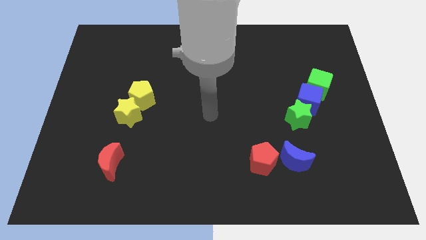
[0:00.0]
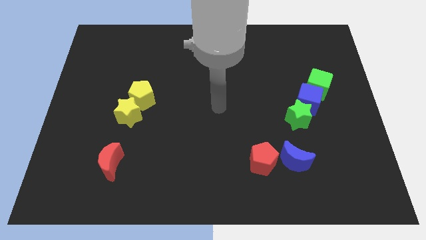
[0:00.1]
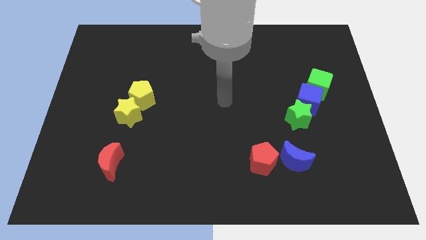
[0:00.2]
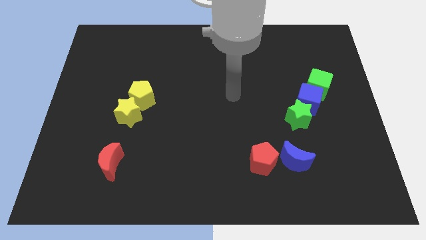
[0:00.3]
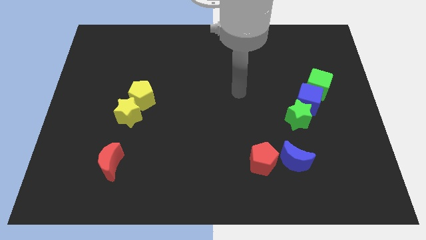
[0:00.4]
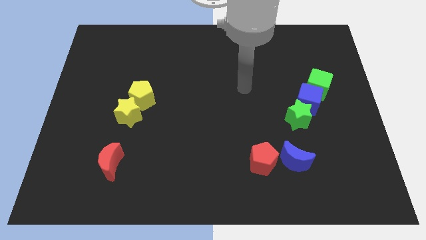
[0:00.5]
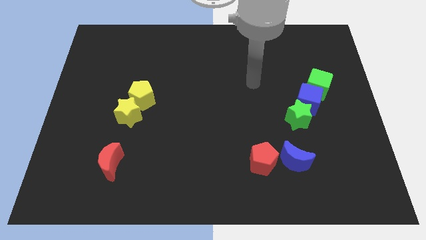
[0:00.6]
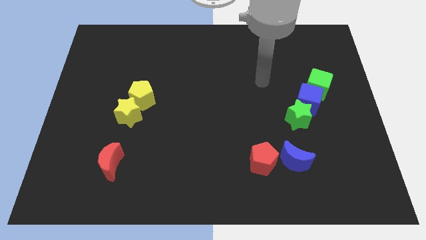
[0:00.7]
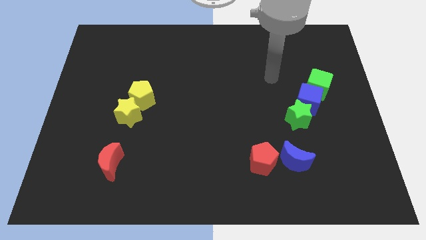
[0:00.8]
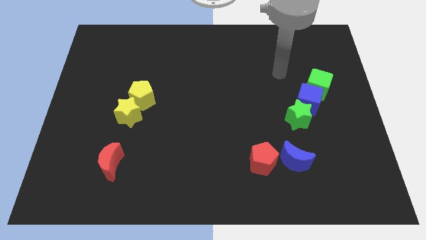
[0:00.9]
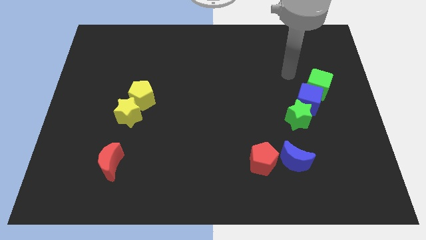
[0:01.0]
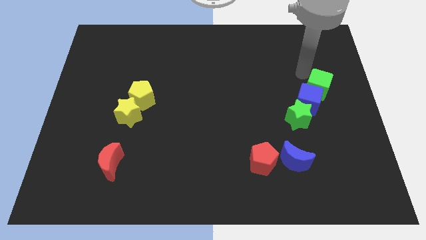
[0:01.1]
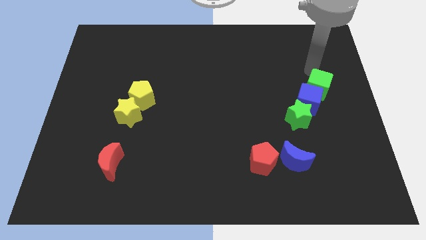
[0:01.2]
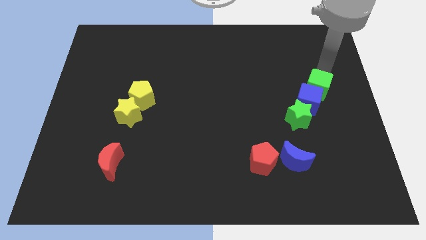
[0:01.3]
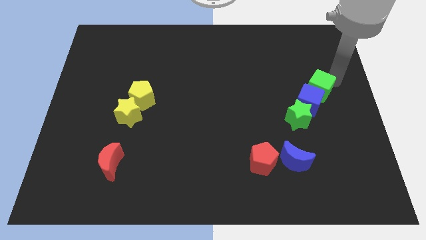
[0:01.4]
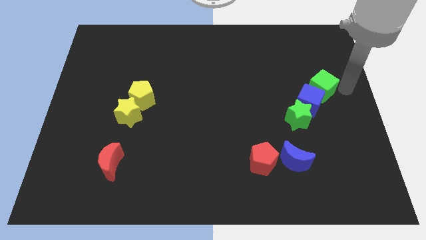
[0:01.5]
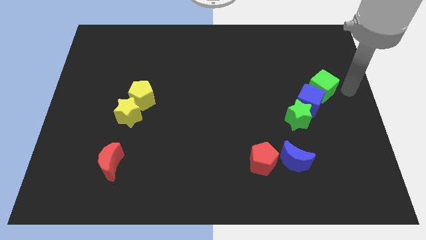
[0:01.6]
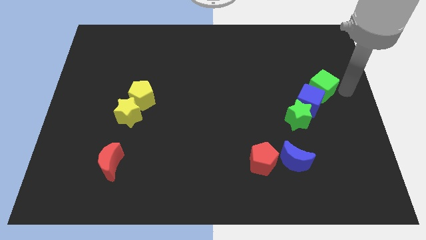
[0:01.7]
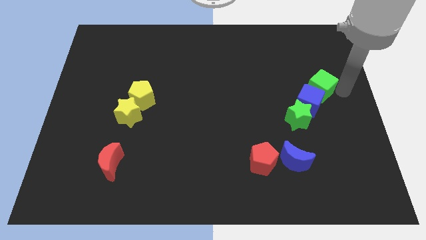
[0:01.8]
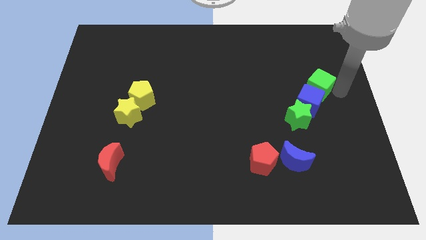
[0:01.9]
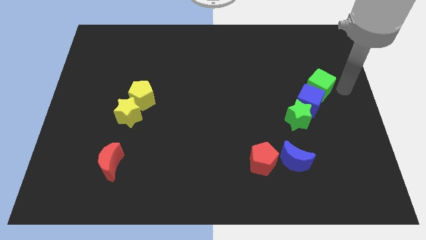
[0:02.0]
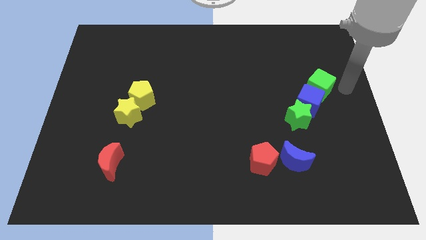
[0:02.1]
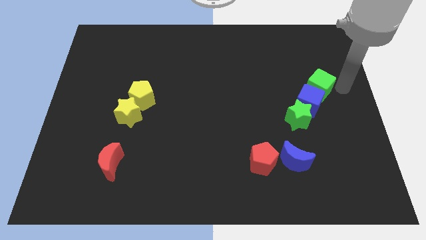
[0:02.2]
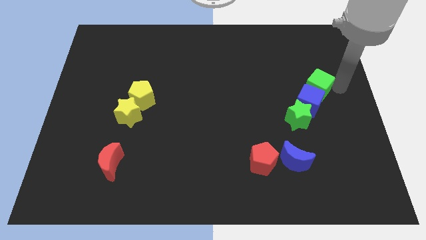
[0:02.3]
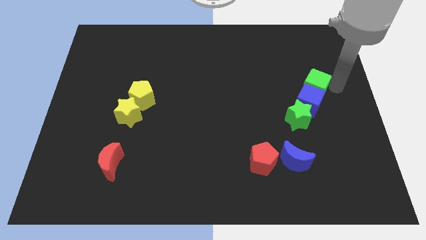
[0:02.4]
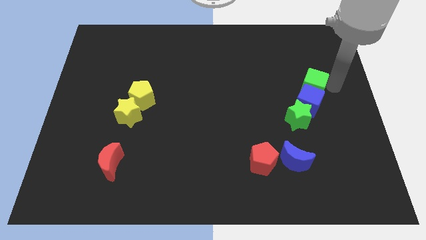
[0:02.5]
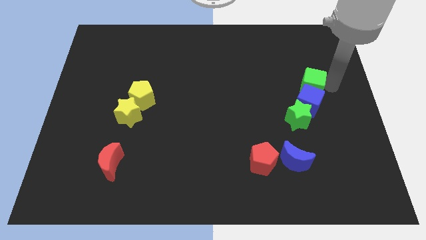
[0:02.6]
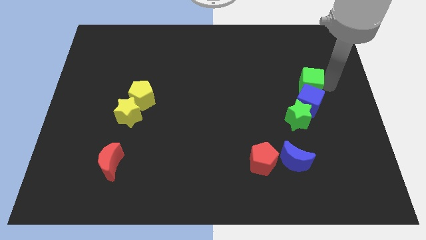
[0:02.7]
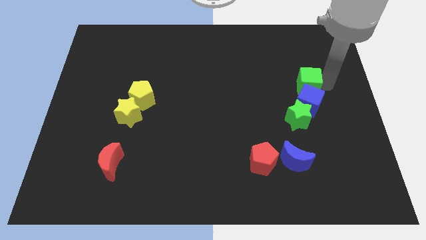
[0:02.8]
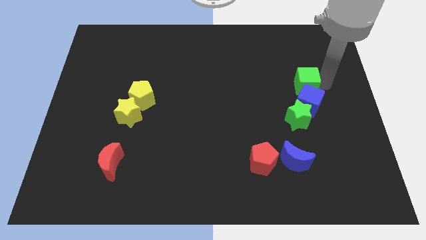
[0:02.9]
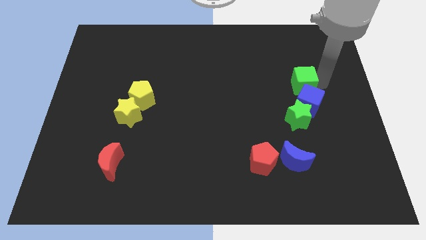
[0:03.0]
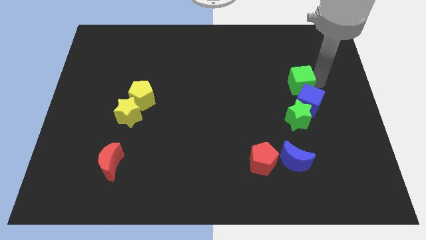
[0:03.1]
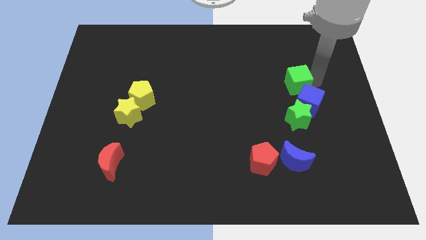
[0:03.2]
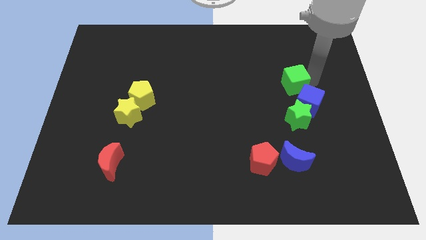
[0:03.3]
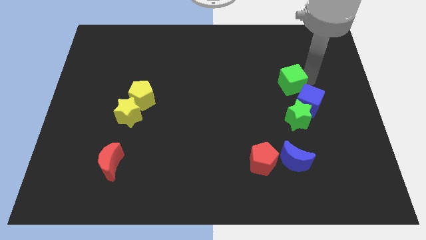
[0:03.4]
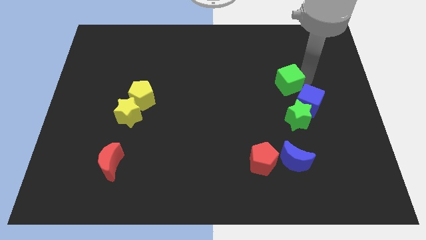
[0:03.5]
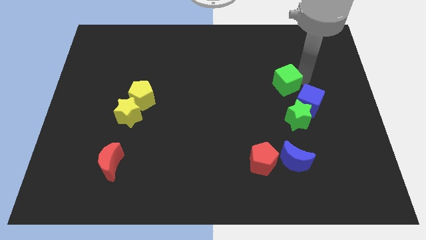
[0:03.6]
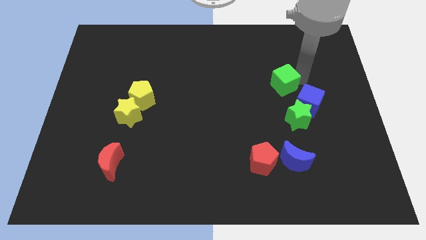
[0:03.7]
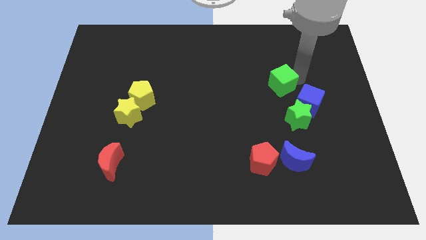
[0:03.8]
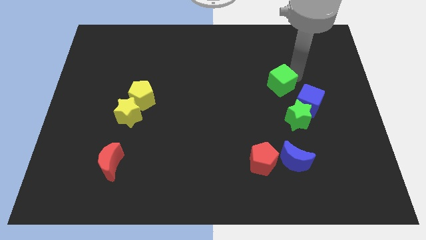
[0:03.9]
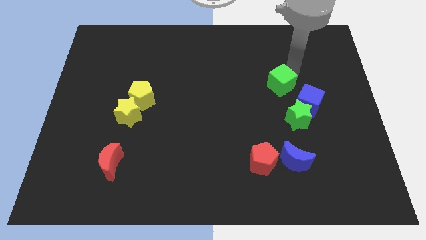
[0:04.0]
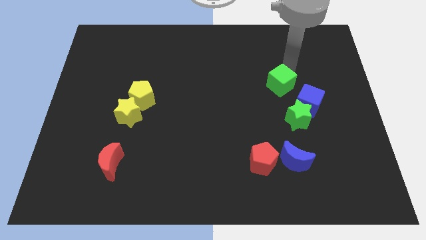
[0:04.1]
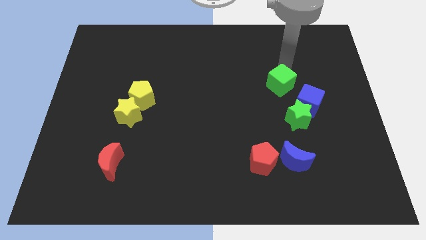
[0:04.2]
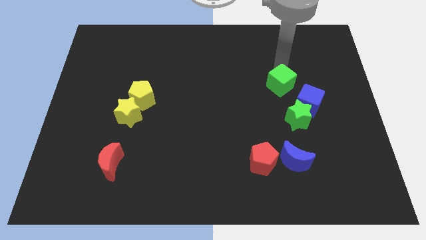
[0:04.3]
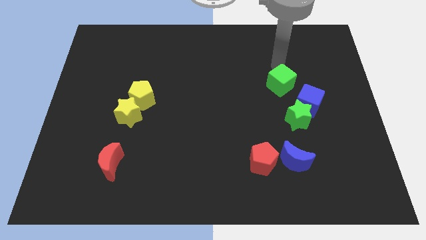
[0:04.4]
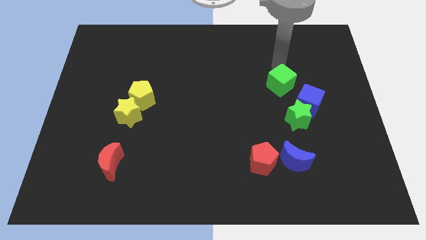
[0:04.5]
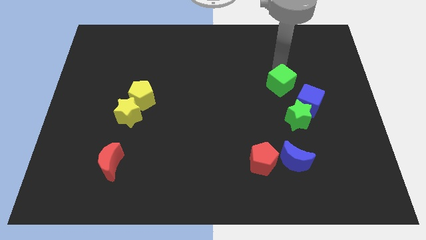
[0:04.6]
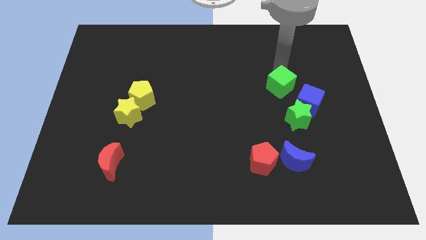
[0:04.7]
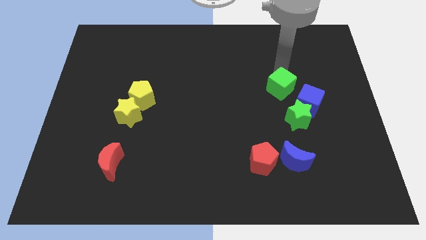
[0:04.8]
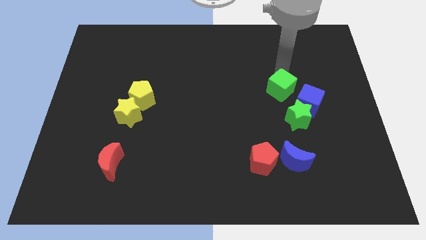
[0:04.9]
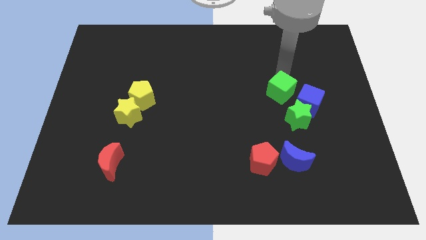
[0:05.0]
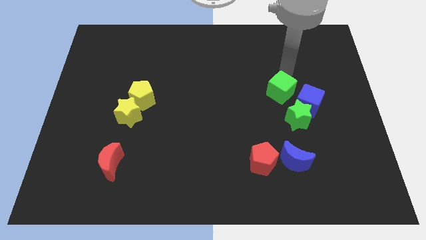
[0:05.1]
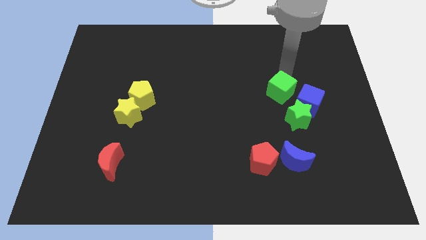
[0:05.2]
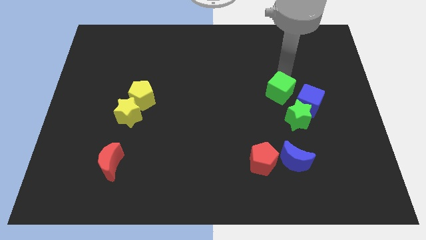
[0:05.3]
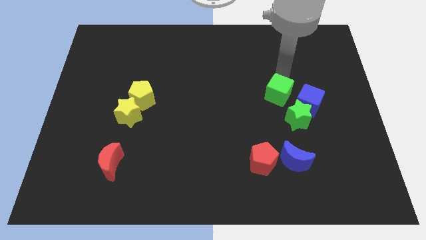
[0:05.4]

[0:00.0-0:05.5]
push the green cube a little bit downwards and then to the left

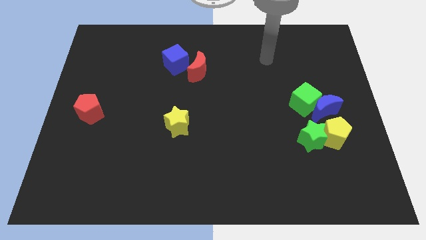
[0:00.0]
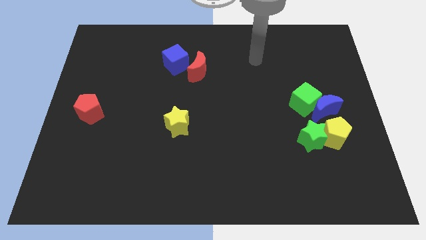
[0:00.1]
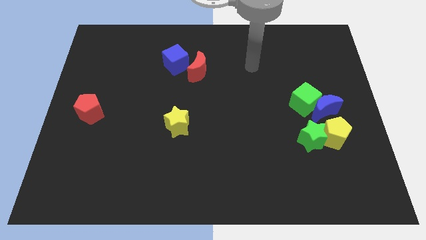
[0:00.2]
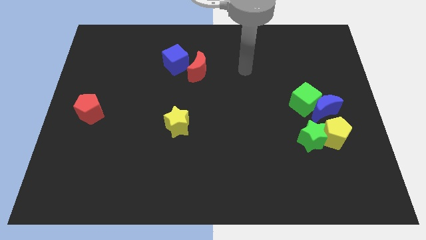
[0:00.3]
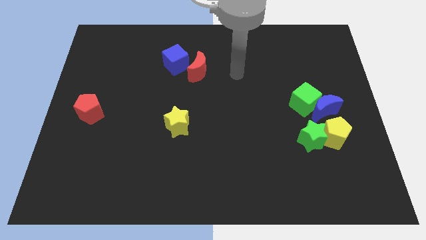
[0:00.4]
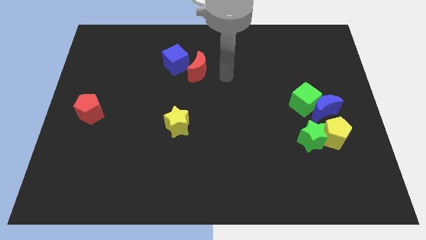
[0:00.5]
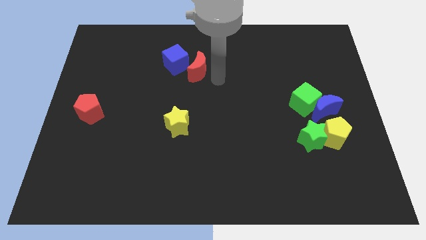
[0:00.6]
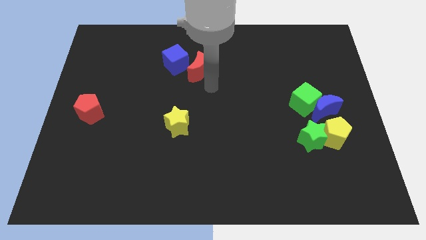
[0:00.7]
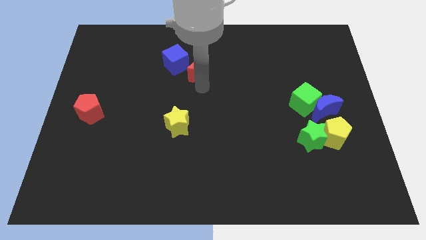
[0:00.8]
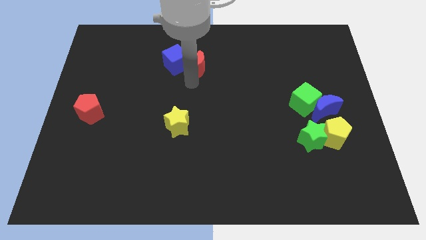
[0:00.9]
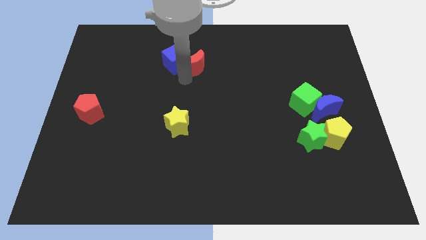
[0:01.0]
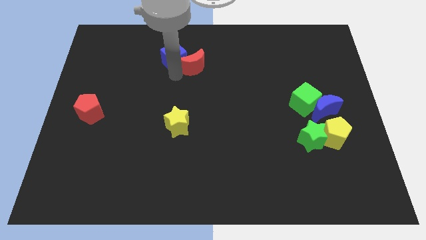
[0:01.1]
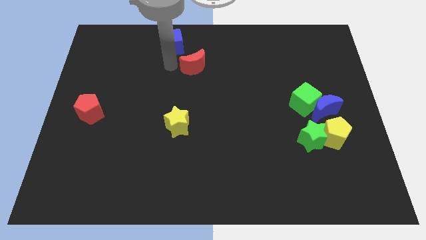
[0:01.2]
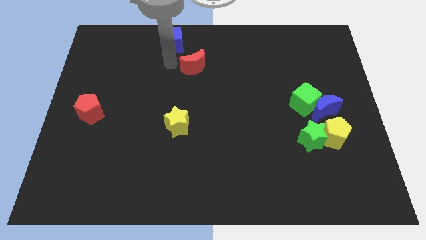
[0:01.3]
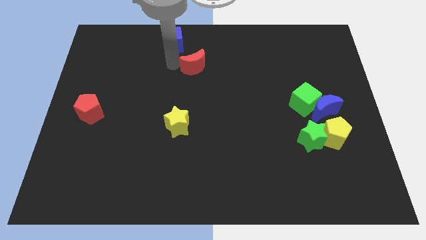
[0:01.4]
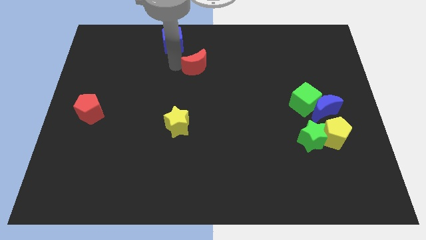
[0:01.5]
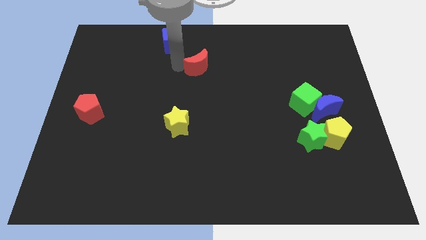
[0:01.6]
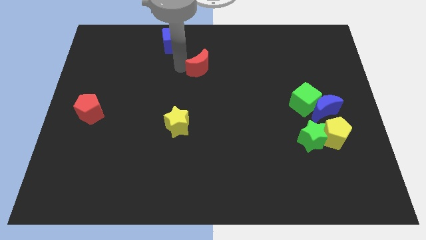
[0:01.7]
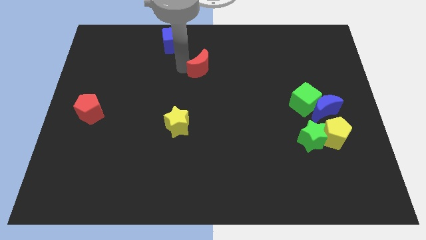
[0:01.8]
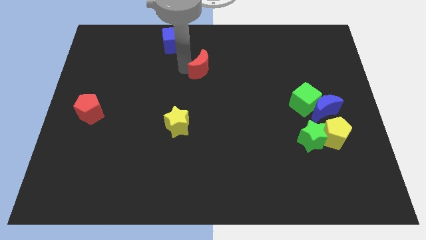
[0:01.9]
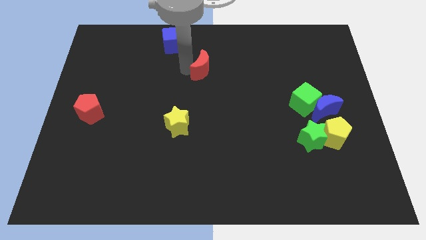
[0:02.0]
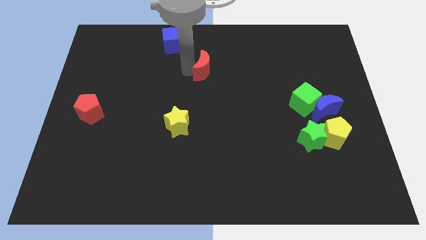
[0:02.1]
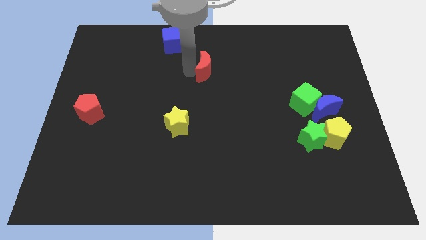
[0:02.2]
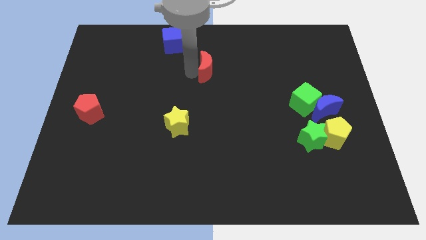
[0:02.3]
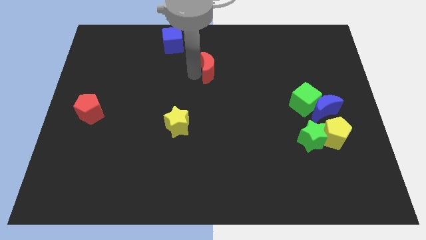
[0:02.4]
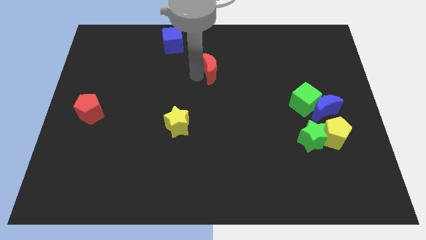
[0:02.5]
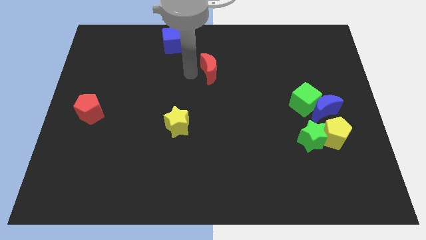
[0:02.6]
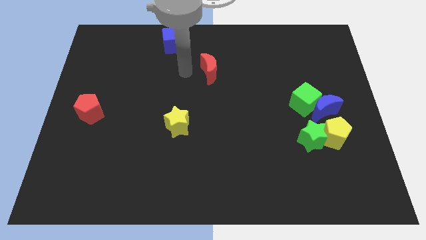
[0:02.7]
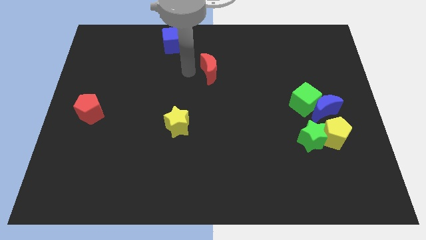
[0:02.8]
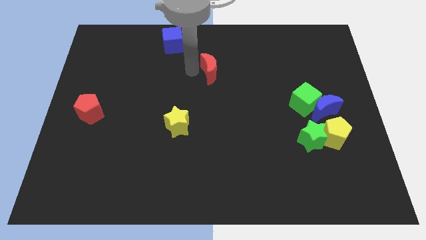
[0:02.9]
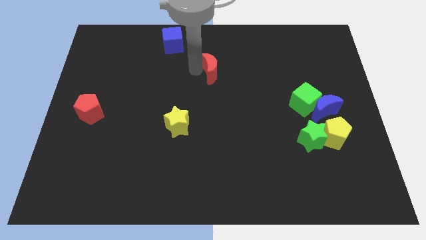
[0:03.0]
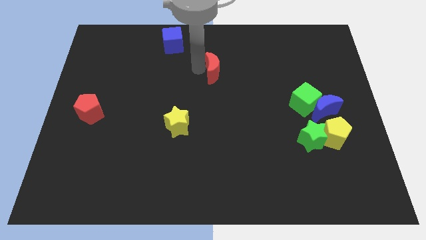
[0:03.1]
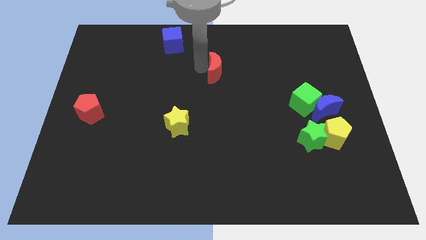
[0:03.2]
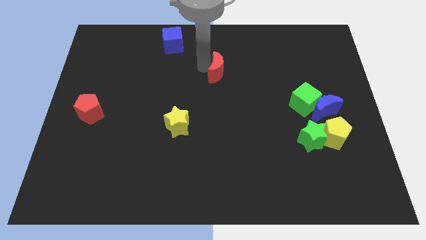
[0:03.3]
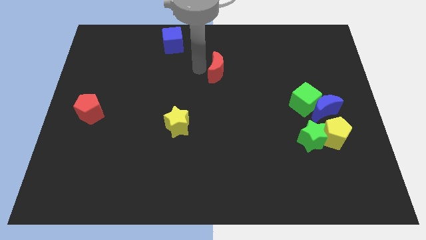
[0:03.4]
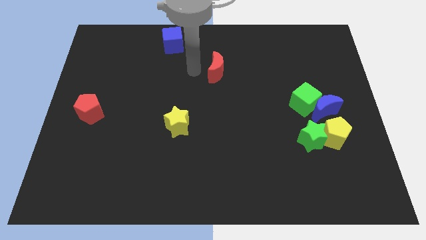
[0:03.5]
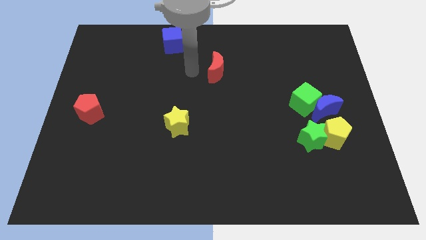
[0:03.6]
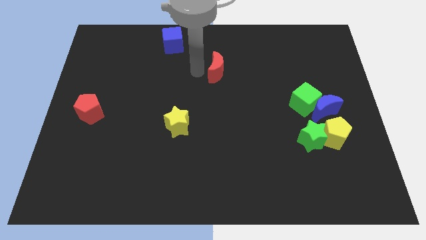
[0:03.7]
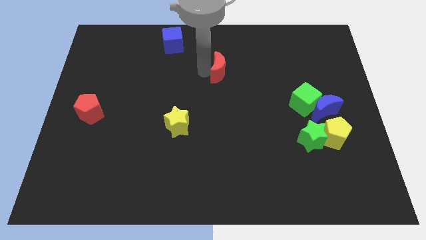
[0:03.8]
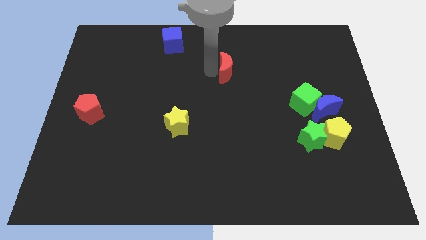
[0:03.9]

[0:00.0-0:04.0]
slightly slide the red moon to the right
